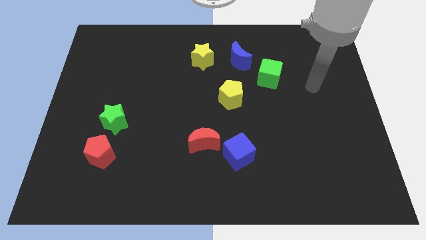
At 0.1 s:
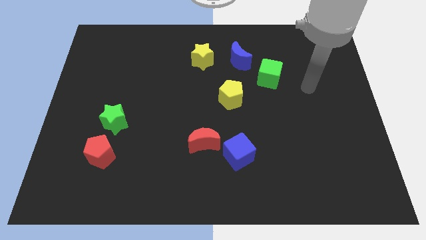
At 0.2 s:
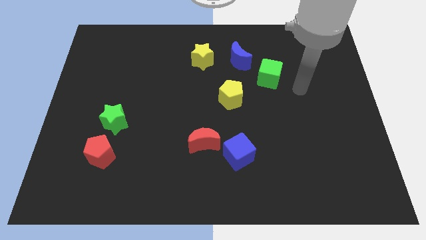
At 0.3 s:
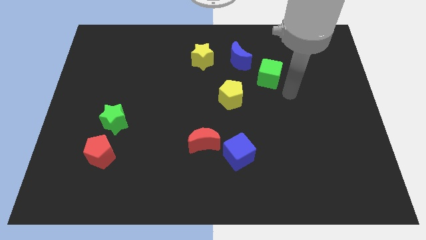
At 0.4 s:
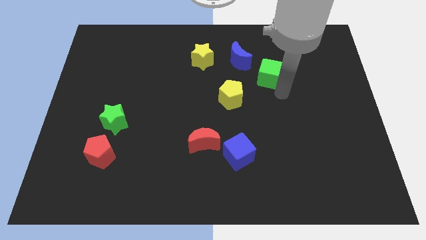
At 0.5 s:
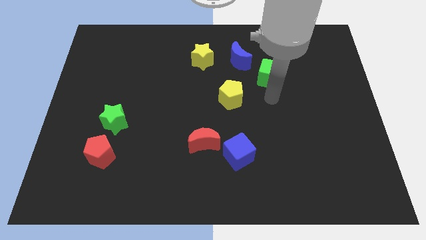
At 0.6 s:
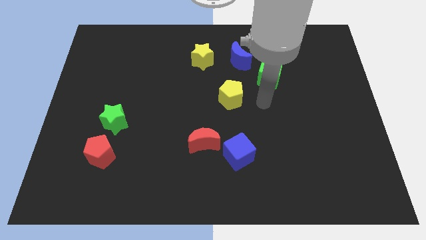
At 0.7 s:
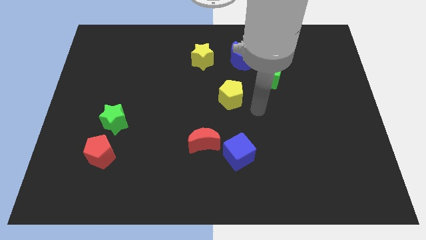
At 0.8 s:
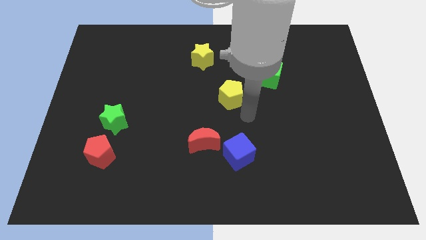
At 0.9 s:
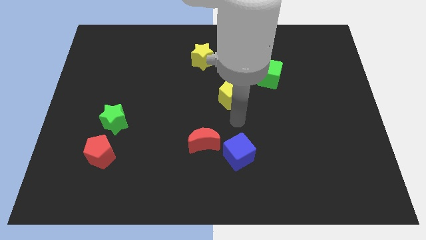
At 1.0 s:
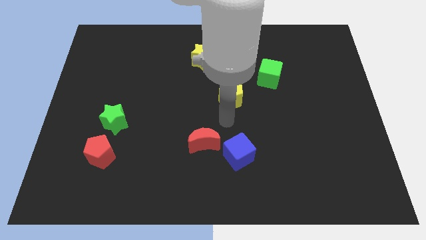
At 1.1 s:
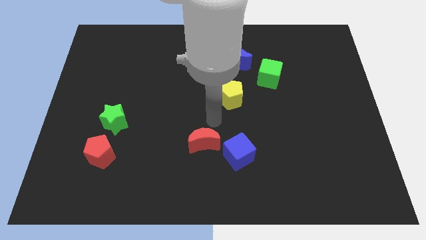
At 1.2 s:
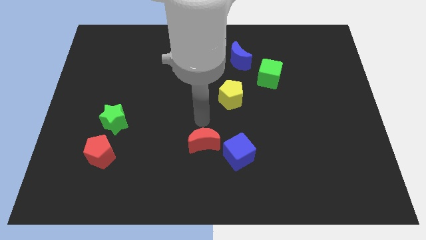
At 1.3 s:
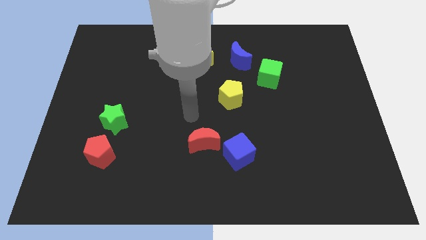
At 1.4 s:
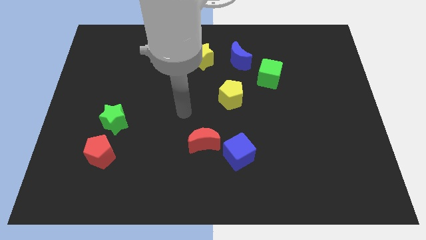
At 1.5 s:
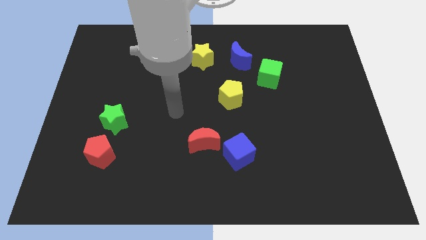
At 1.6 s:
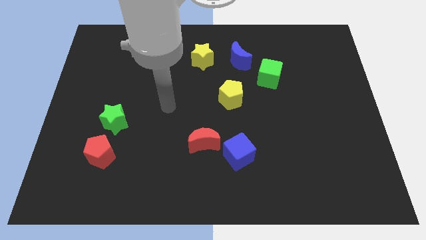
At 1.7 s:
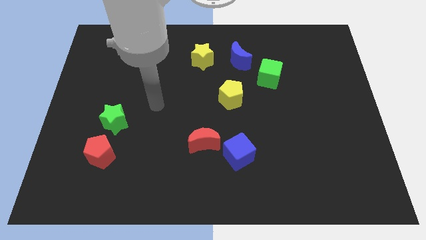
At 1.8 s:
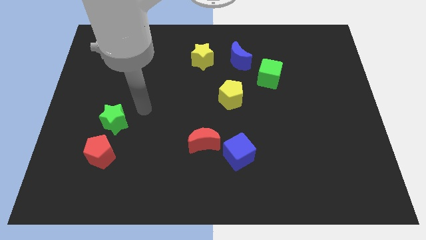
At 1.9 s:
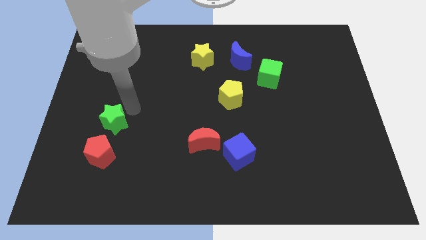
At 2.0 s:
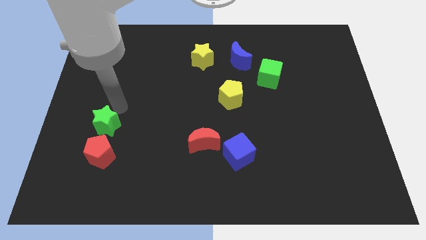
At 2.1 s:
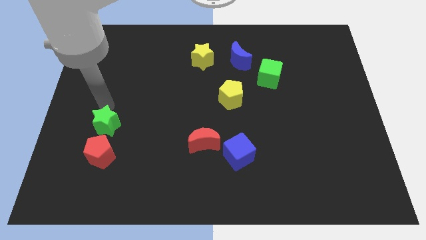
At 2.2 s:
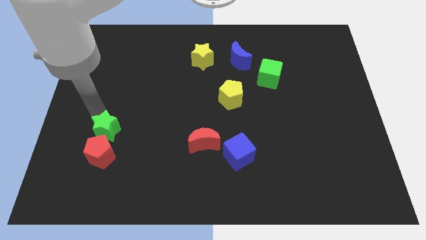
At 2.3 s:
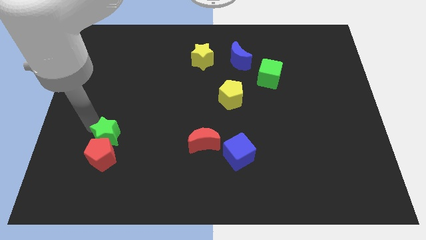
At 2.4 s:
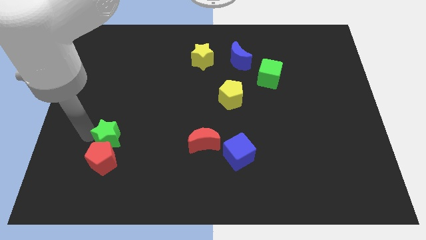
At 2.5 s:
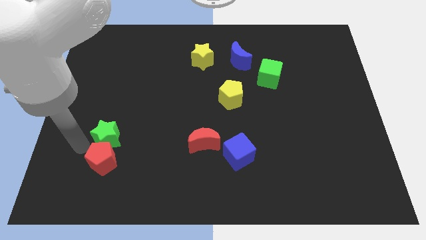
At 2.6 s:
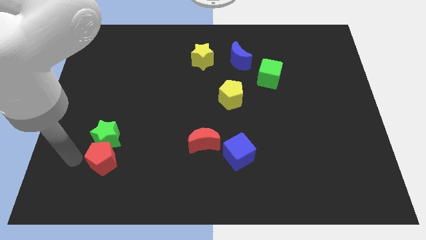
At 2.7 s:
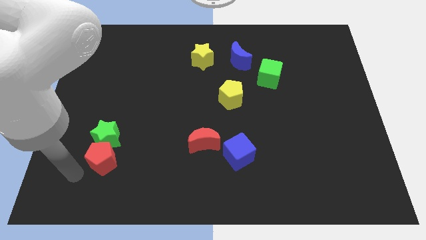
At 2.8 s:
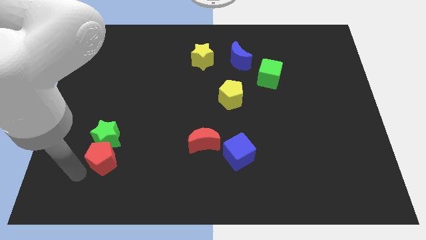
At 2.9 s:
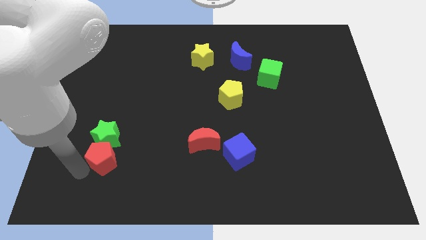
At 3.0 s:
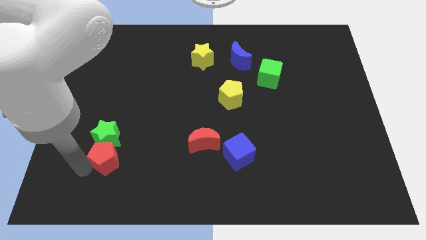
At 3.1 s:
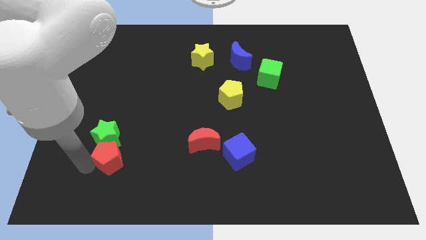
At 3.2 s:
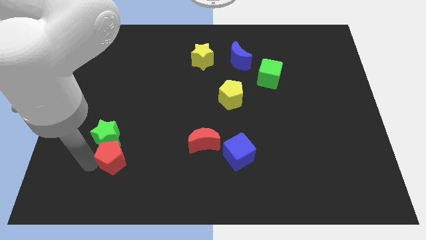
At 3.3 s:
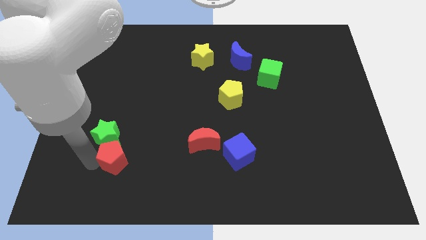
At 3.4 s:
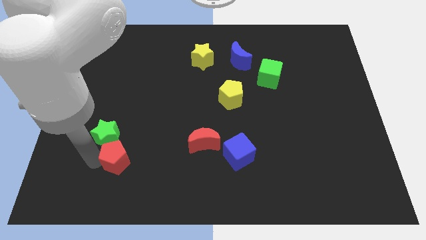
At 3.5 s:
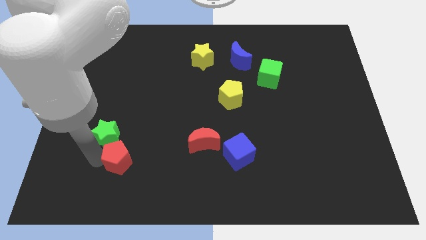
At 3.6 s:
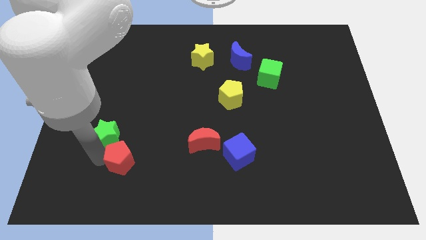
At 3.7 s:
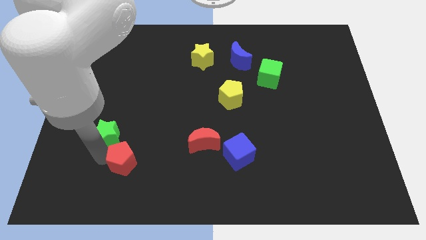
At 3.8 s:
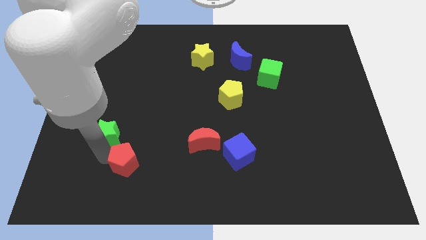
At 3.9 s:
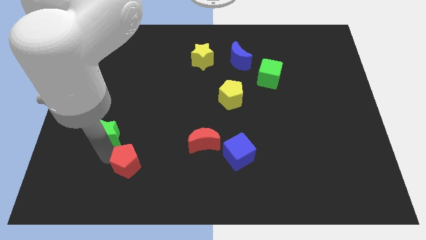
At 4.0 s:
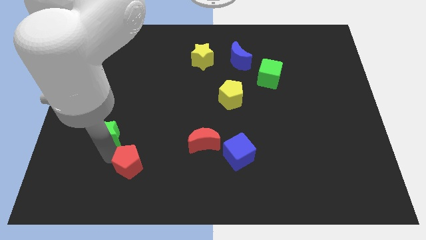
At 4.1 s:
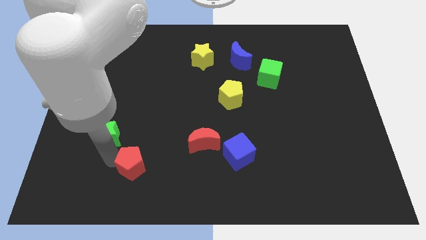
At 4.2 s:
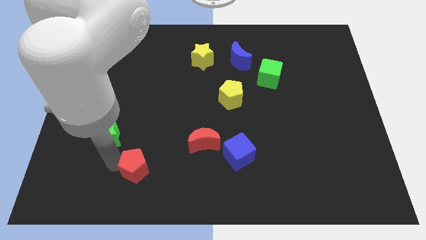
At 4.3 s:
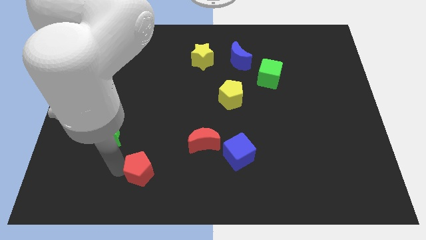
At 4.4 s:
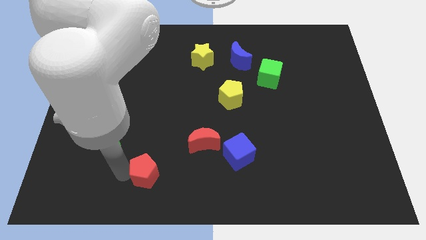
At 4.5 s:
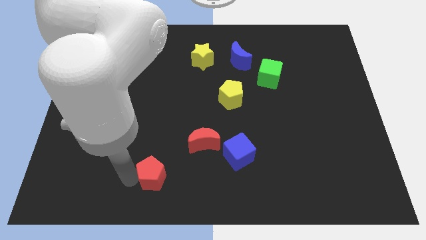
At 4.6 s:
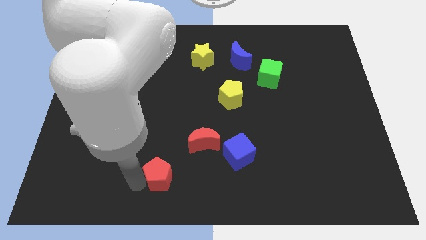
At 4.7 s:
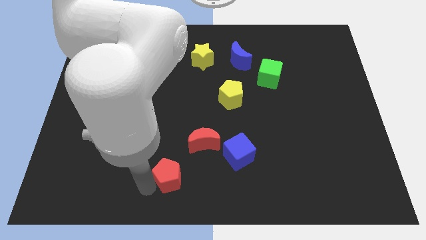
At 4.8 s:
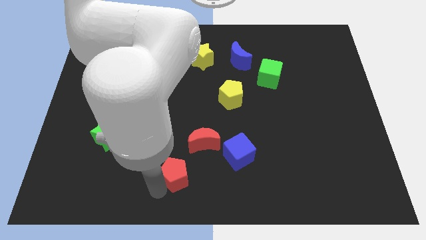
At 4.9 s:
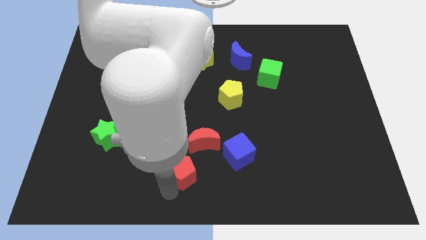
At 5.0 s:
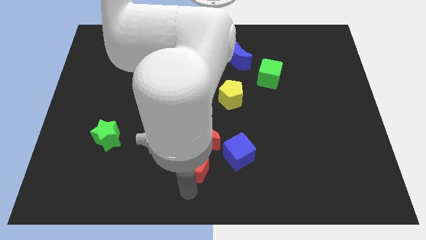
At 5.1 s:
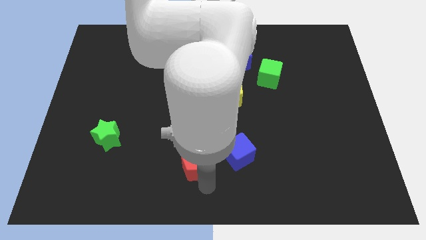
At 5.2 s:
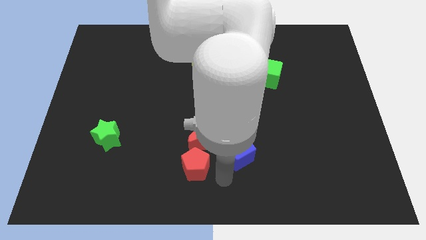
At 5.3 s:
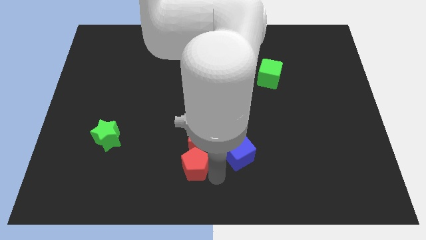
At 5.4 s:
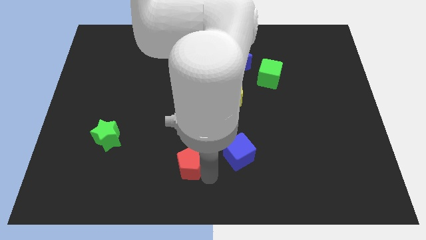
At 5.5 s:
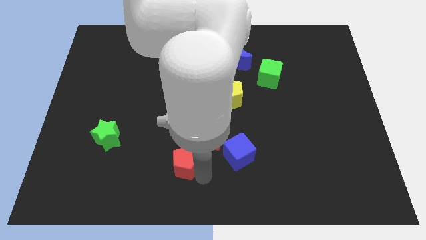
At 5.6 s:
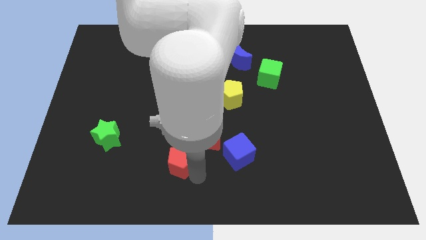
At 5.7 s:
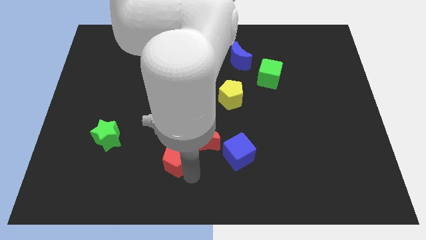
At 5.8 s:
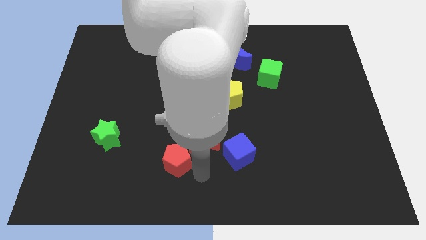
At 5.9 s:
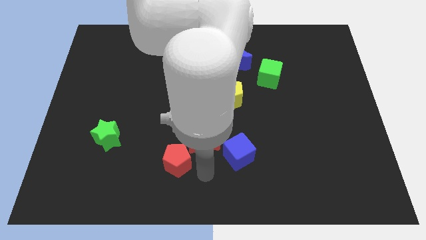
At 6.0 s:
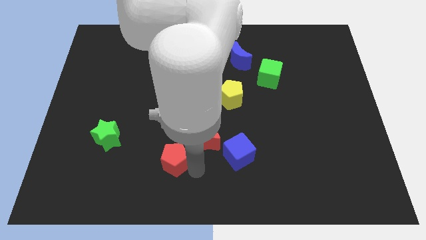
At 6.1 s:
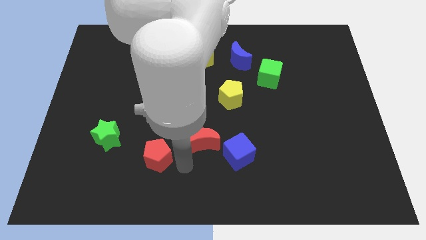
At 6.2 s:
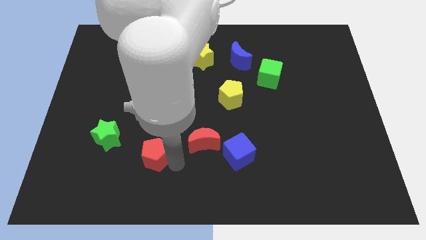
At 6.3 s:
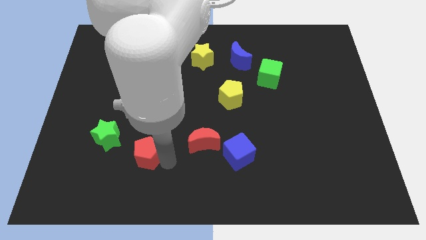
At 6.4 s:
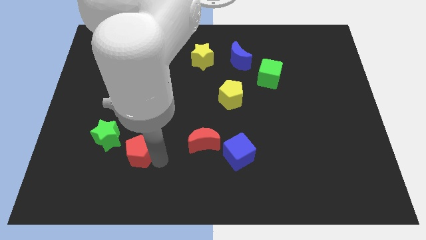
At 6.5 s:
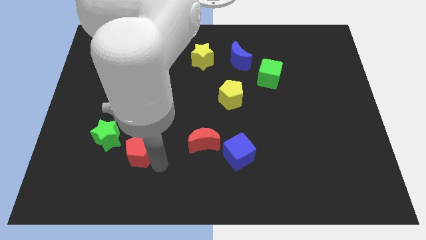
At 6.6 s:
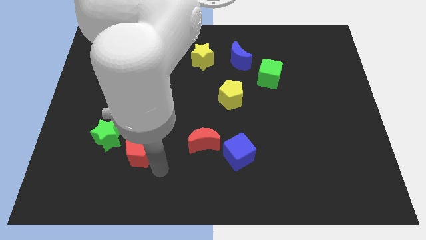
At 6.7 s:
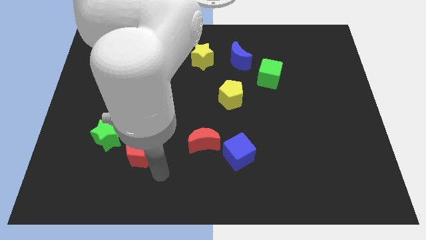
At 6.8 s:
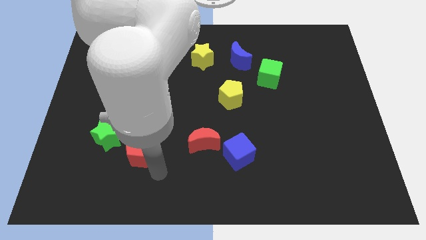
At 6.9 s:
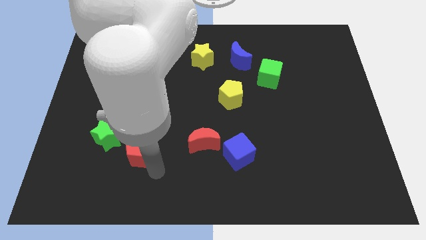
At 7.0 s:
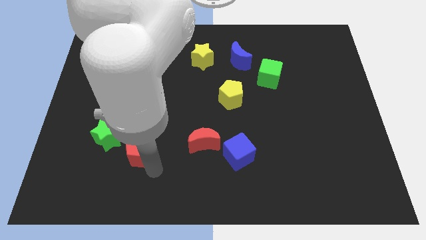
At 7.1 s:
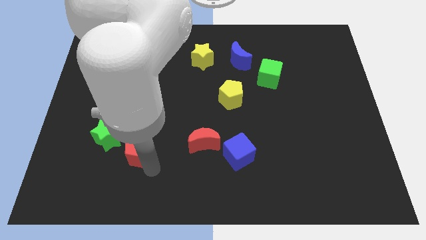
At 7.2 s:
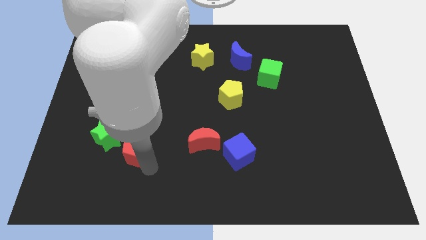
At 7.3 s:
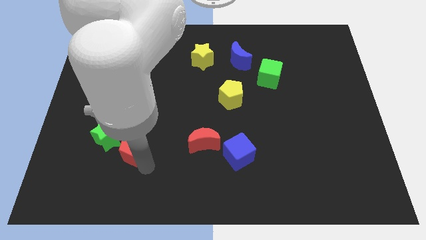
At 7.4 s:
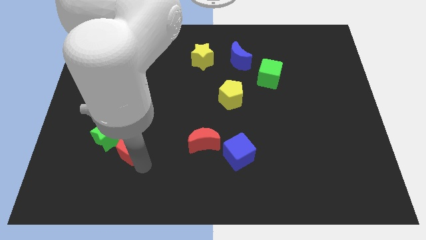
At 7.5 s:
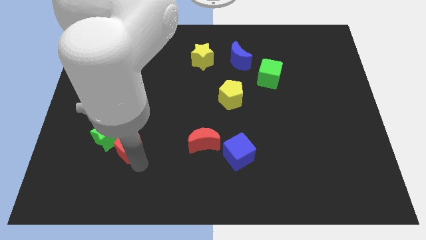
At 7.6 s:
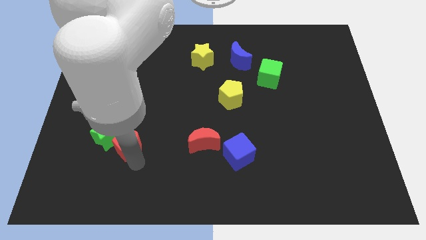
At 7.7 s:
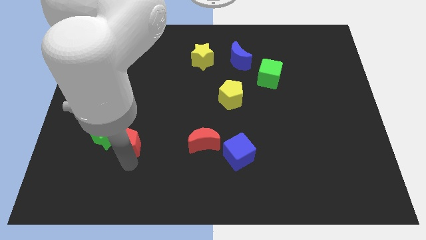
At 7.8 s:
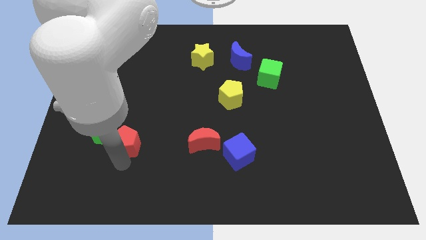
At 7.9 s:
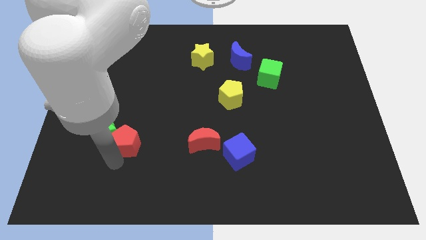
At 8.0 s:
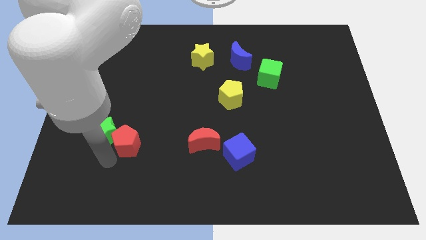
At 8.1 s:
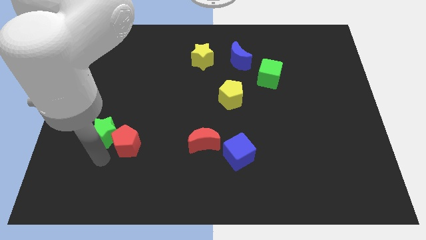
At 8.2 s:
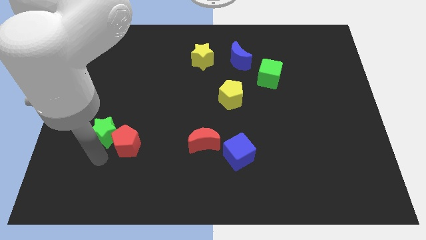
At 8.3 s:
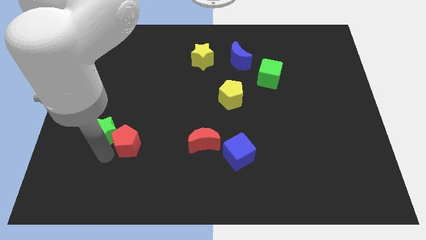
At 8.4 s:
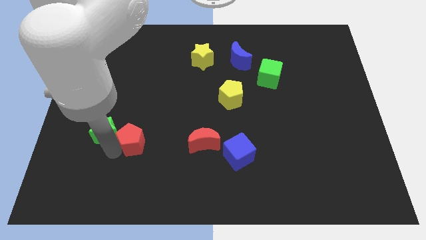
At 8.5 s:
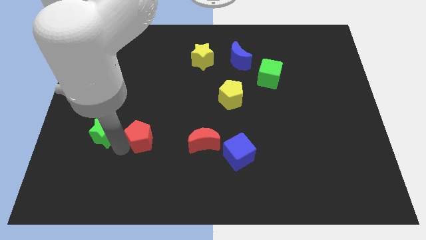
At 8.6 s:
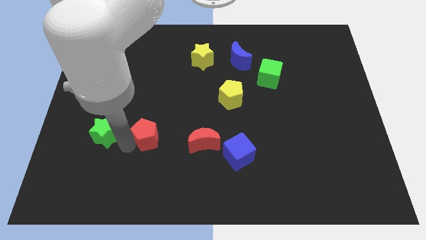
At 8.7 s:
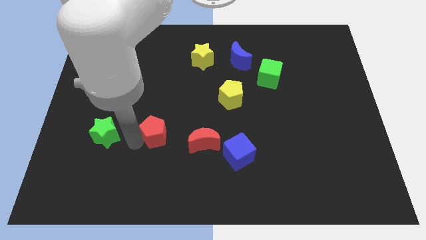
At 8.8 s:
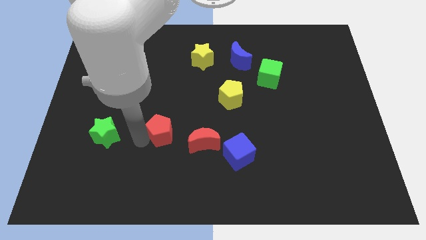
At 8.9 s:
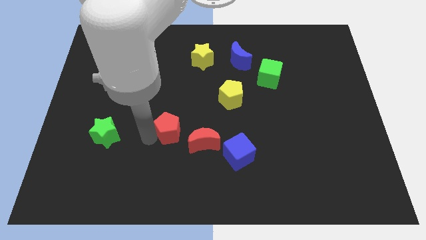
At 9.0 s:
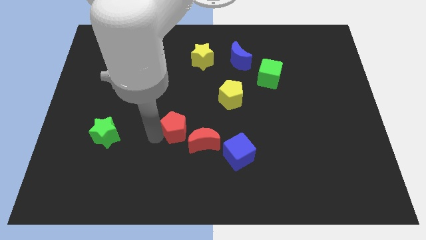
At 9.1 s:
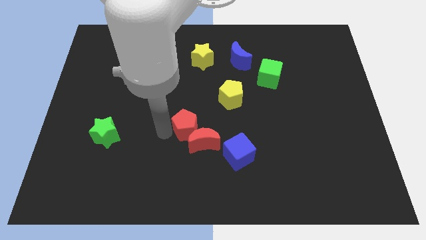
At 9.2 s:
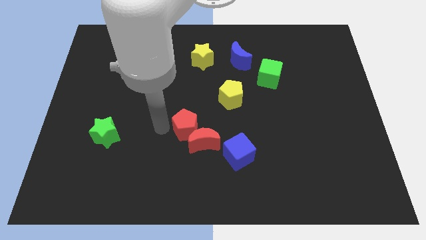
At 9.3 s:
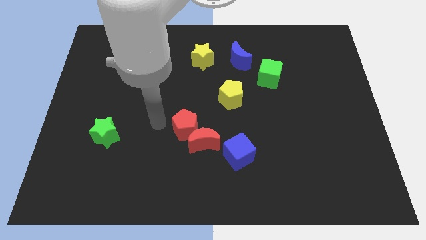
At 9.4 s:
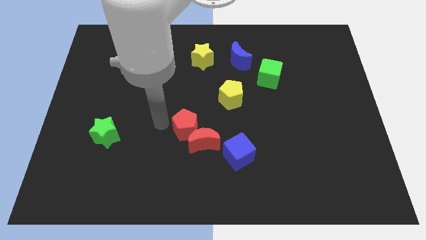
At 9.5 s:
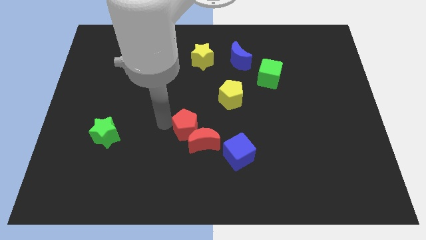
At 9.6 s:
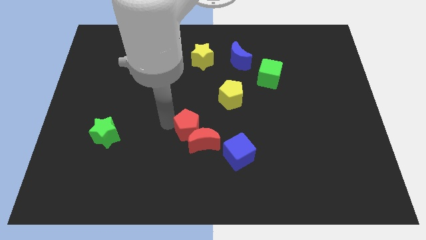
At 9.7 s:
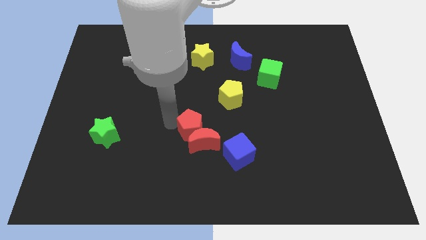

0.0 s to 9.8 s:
push the red pentagon diagonally up and to the left of the blue cube
